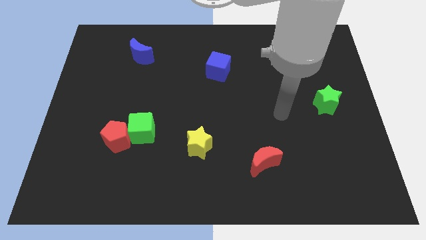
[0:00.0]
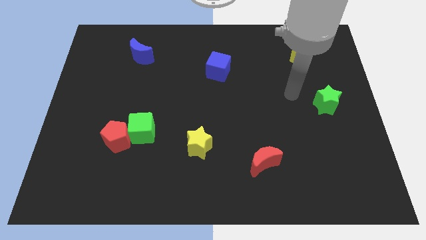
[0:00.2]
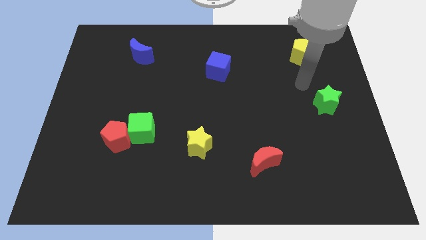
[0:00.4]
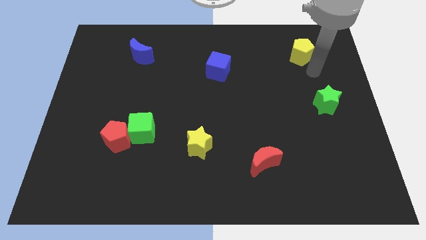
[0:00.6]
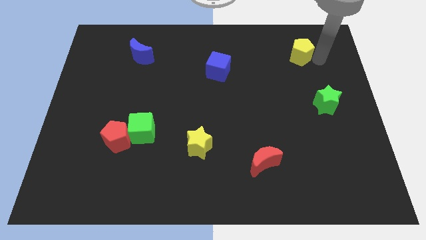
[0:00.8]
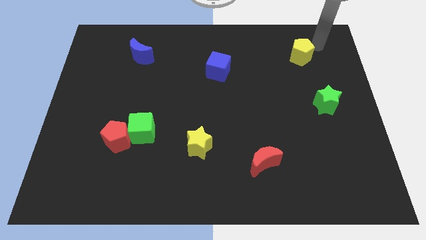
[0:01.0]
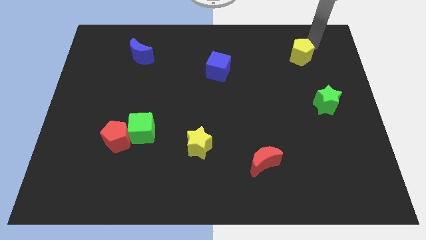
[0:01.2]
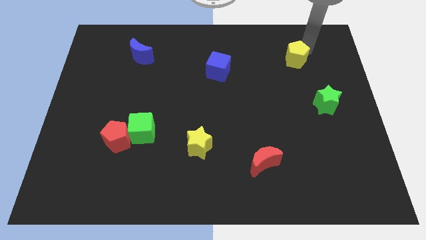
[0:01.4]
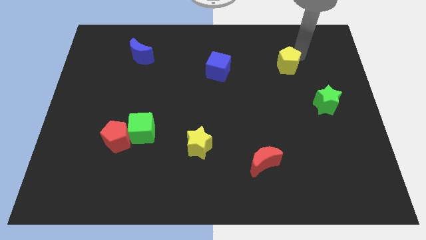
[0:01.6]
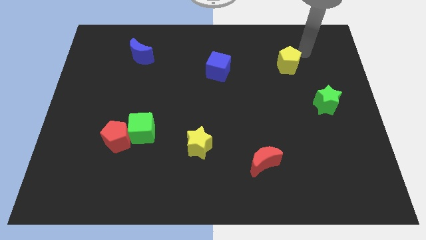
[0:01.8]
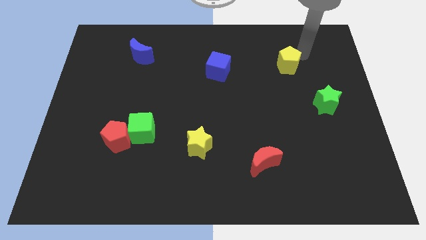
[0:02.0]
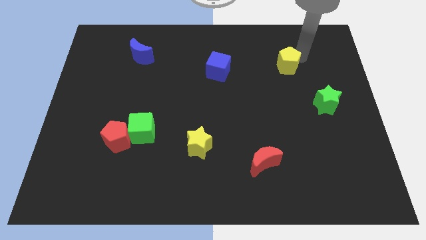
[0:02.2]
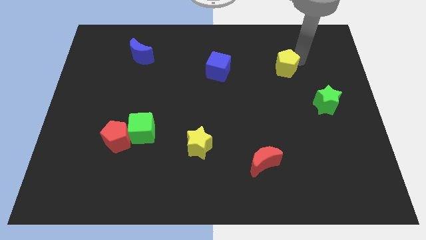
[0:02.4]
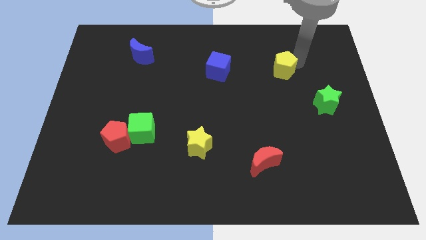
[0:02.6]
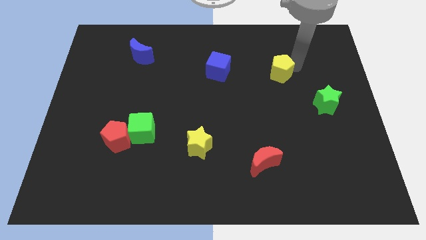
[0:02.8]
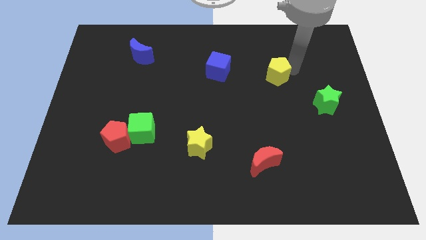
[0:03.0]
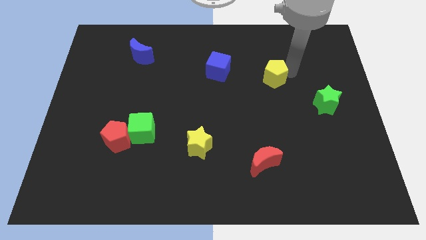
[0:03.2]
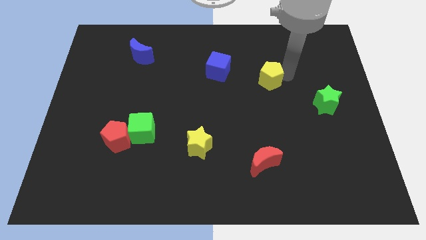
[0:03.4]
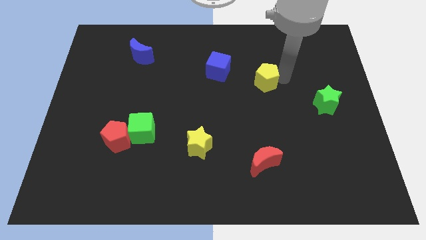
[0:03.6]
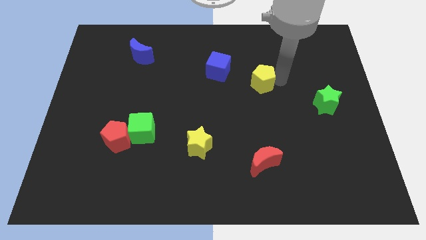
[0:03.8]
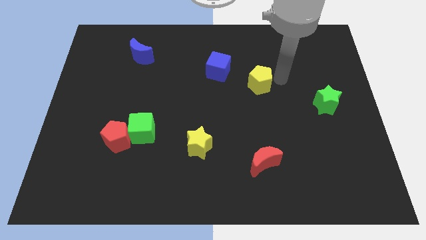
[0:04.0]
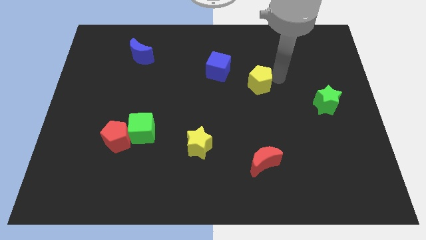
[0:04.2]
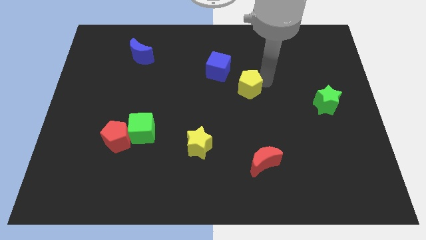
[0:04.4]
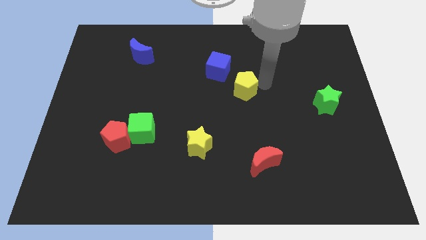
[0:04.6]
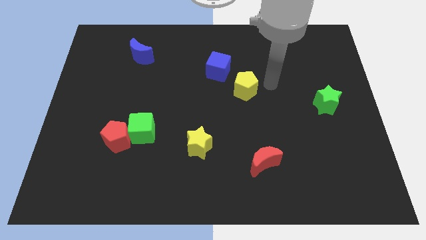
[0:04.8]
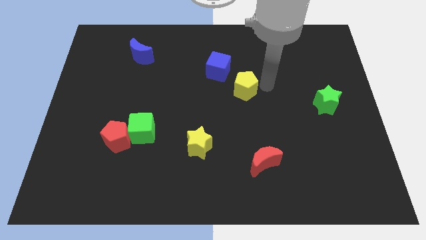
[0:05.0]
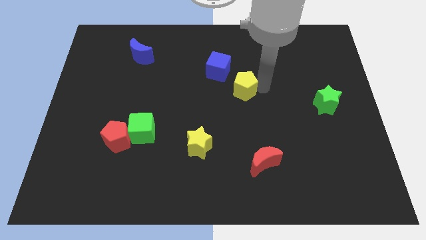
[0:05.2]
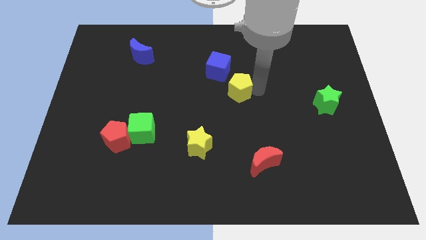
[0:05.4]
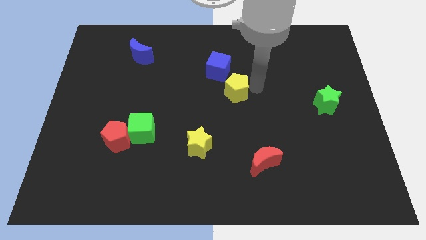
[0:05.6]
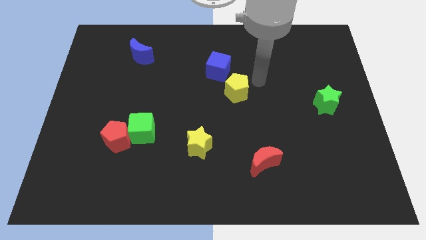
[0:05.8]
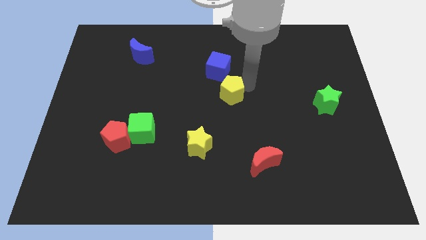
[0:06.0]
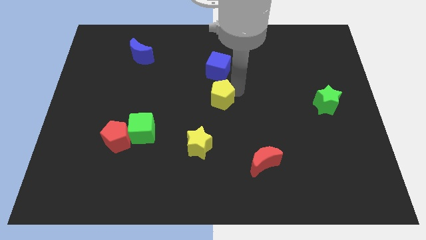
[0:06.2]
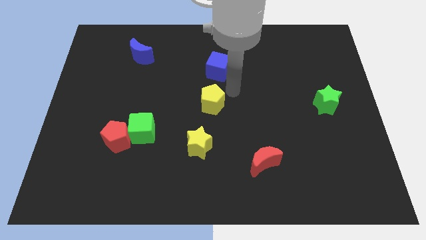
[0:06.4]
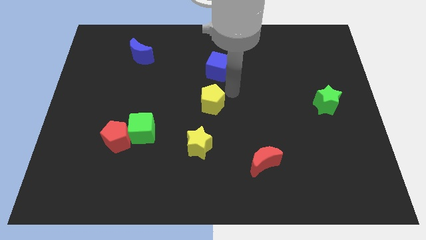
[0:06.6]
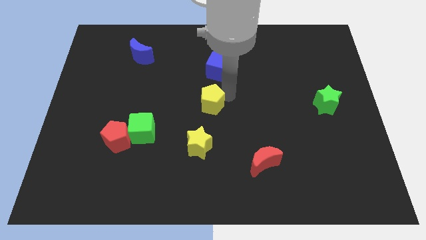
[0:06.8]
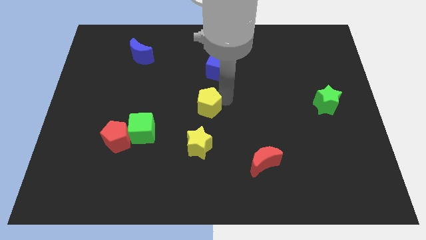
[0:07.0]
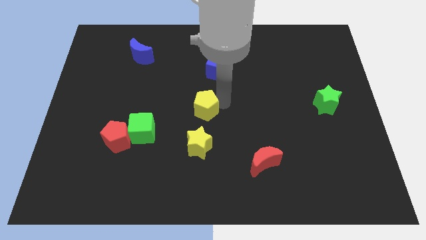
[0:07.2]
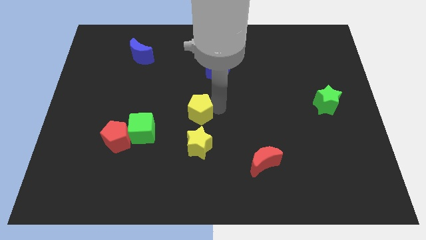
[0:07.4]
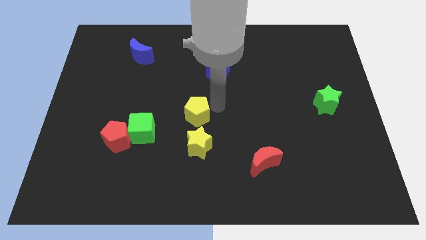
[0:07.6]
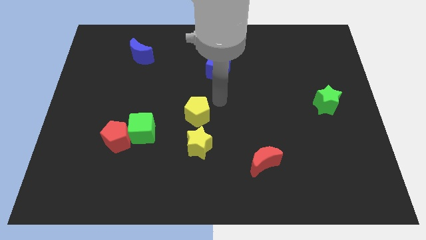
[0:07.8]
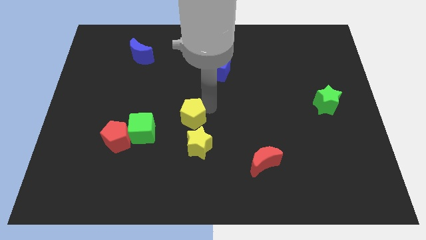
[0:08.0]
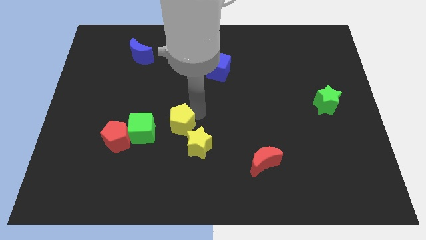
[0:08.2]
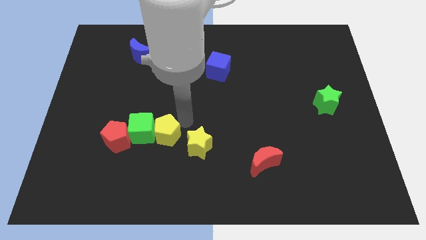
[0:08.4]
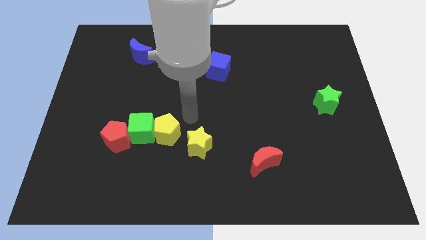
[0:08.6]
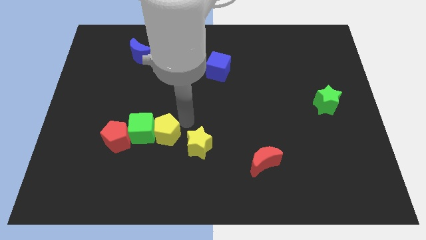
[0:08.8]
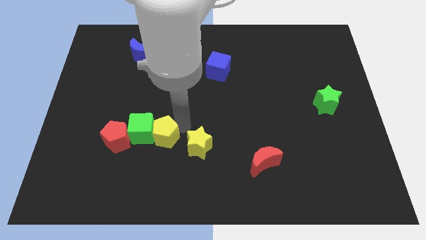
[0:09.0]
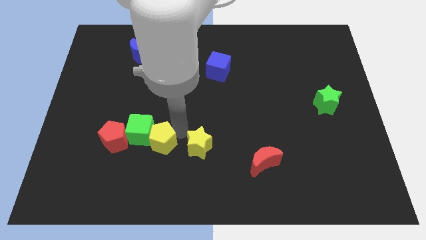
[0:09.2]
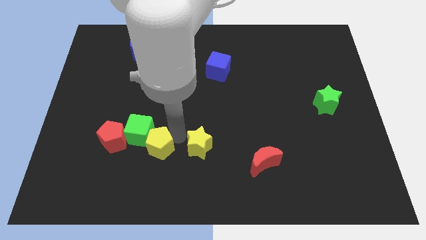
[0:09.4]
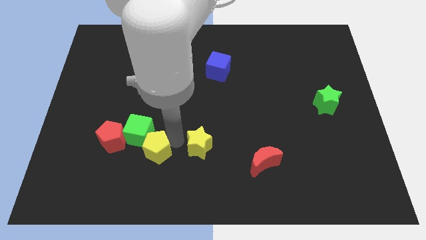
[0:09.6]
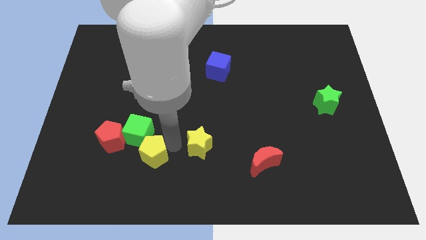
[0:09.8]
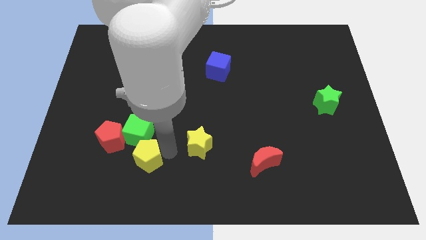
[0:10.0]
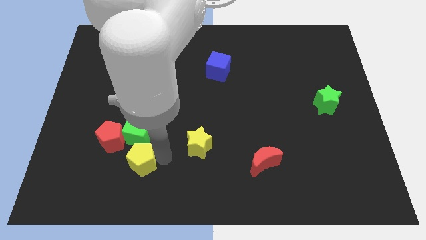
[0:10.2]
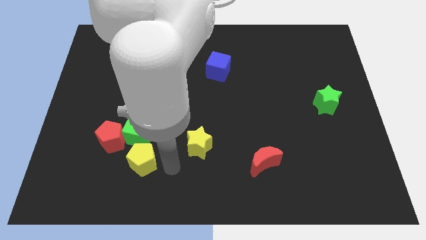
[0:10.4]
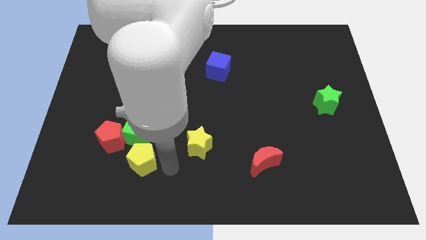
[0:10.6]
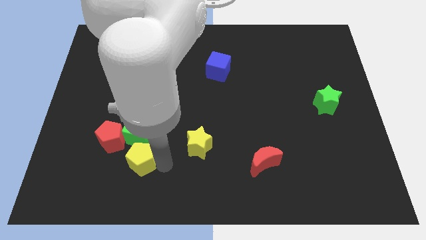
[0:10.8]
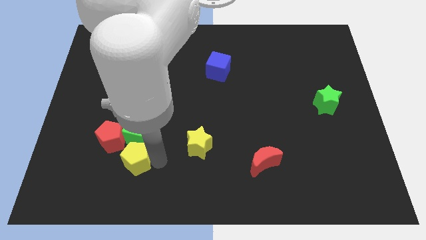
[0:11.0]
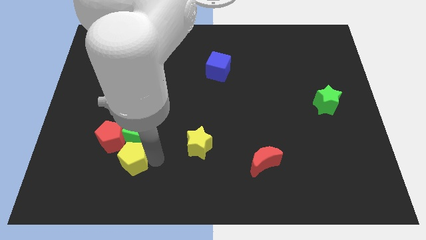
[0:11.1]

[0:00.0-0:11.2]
put the yellow pentagon to the bottom left side of the green cube

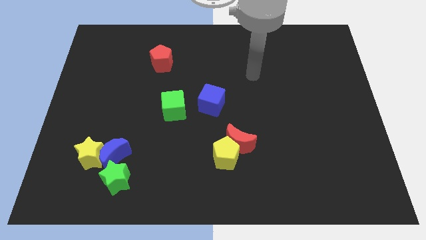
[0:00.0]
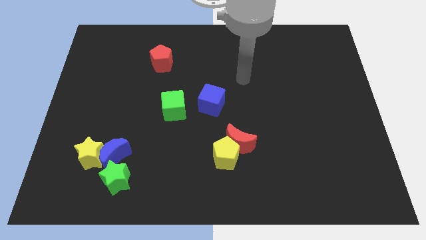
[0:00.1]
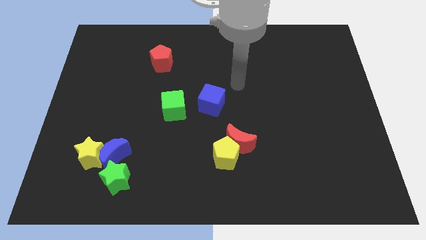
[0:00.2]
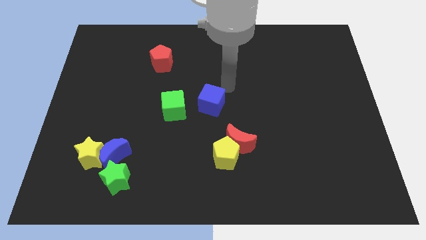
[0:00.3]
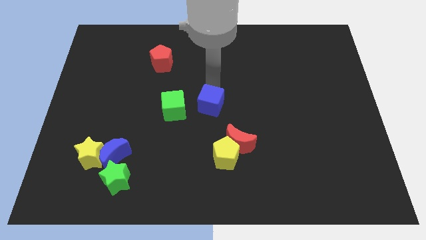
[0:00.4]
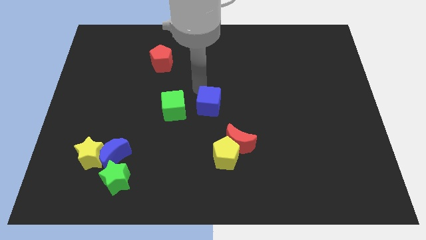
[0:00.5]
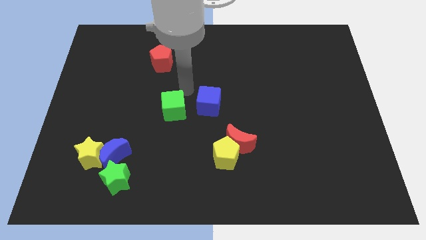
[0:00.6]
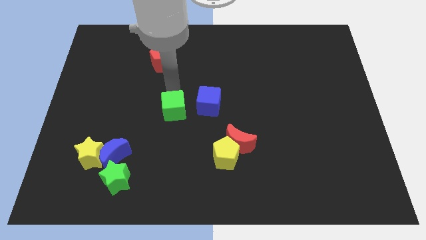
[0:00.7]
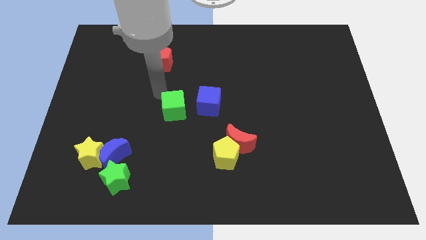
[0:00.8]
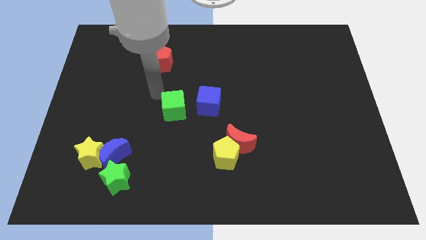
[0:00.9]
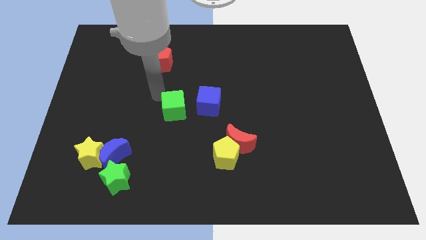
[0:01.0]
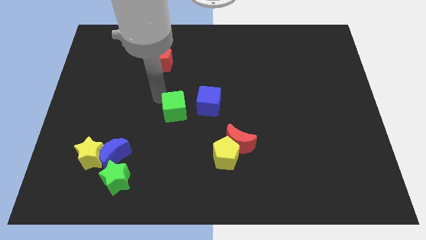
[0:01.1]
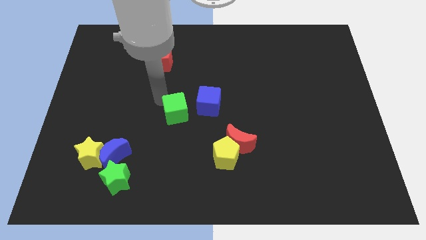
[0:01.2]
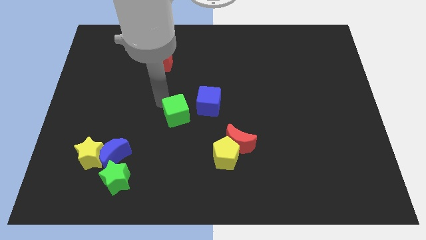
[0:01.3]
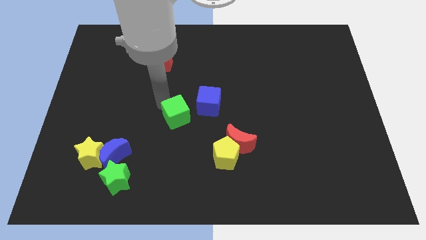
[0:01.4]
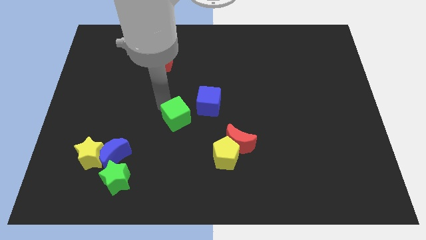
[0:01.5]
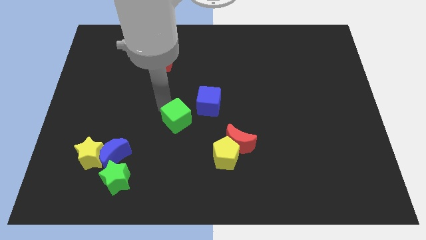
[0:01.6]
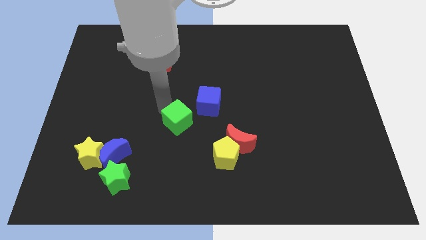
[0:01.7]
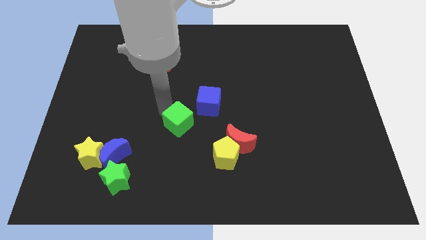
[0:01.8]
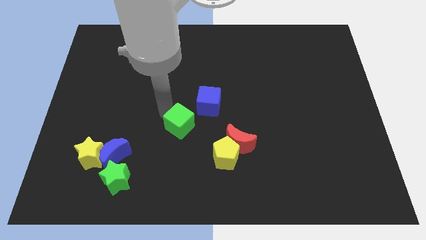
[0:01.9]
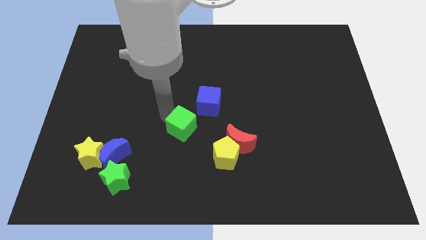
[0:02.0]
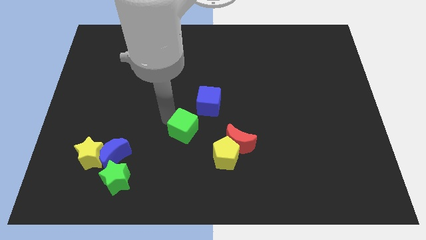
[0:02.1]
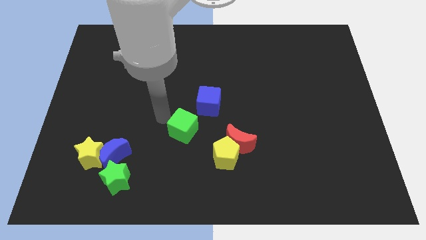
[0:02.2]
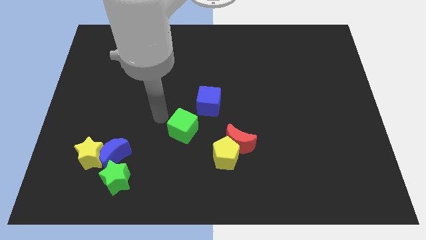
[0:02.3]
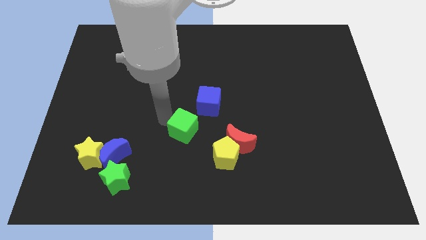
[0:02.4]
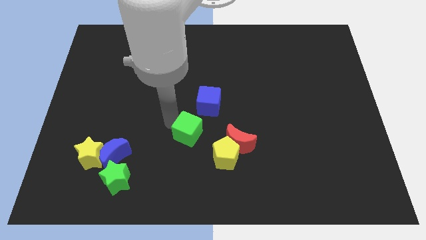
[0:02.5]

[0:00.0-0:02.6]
push the green cube below the blue cube
